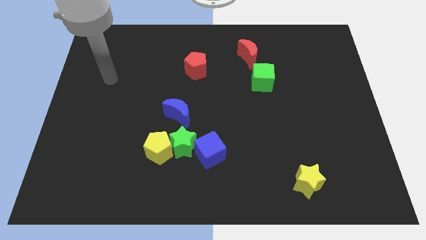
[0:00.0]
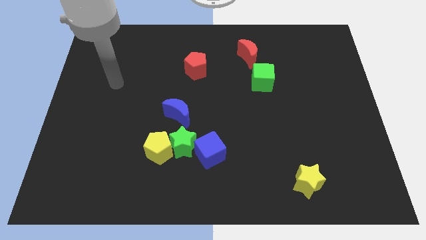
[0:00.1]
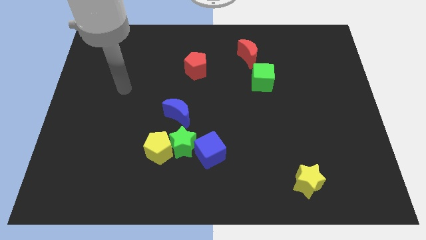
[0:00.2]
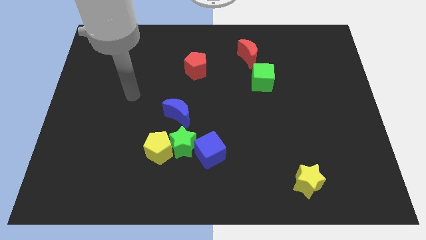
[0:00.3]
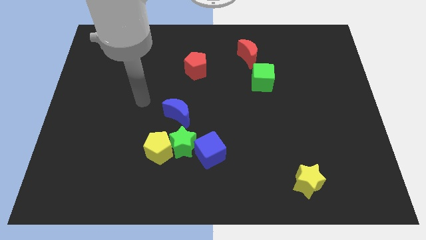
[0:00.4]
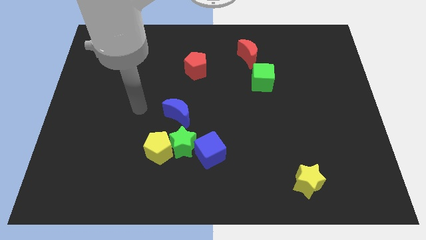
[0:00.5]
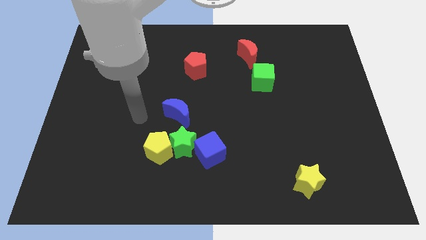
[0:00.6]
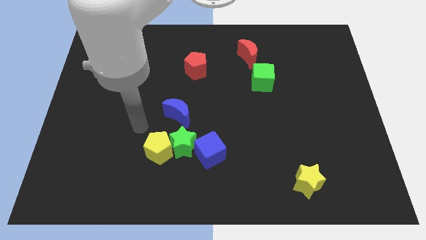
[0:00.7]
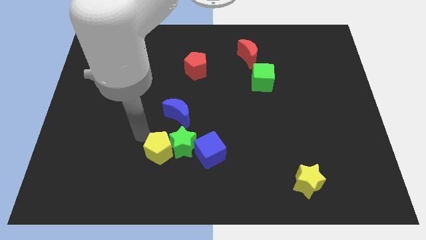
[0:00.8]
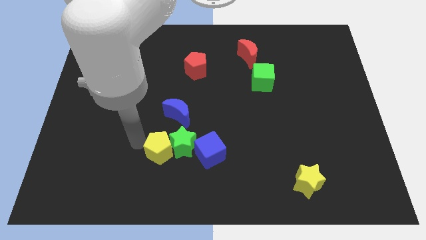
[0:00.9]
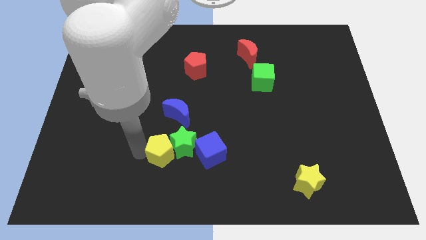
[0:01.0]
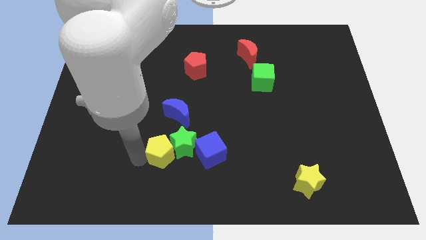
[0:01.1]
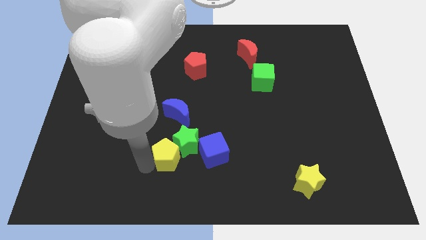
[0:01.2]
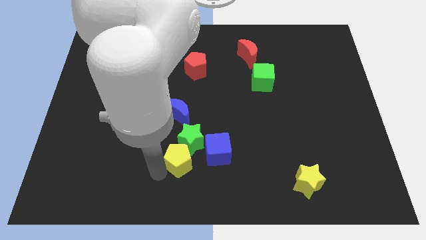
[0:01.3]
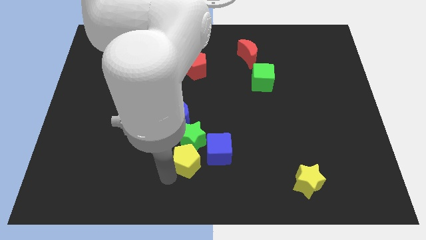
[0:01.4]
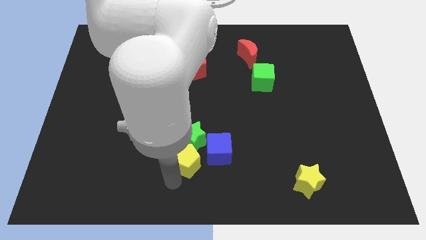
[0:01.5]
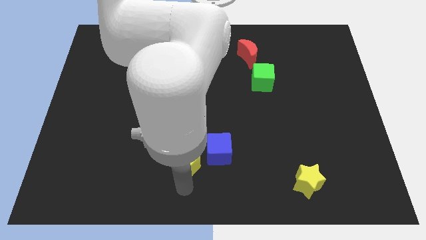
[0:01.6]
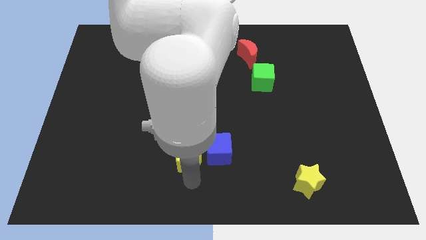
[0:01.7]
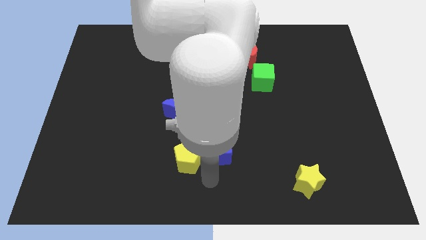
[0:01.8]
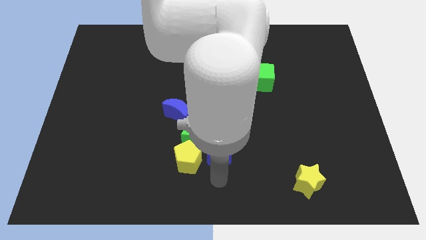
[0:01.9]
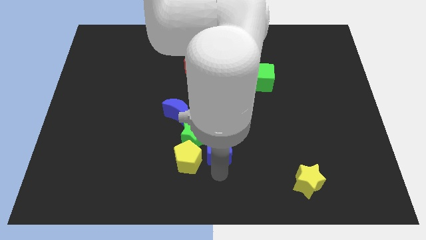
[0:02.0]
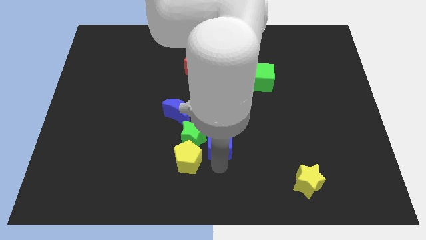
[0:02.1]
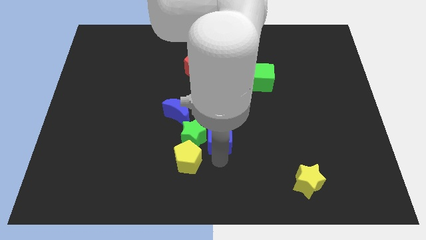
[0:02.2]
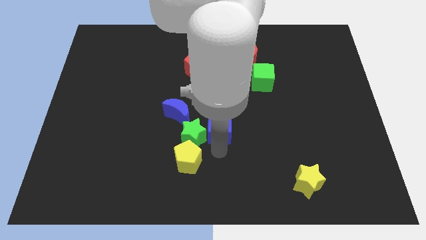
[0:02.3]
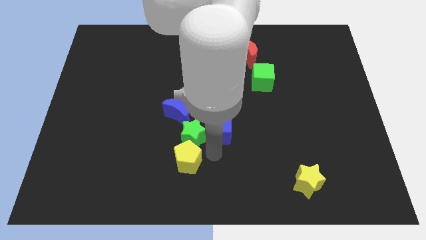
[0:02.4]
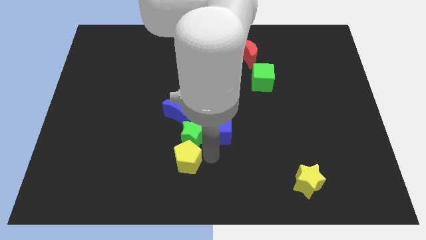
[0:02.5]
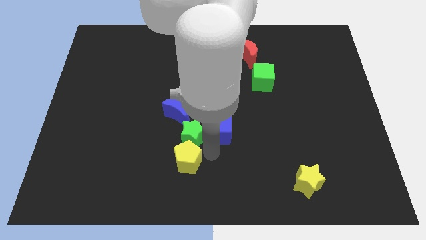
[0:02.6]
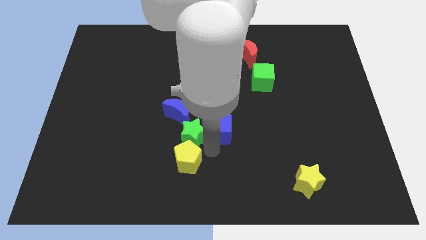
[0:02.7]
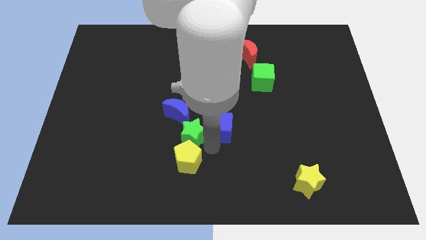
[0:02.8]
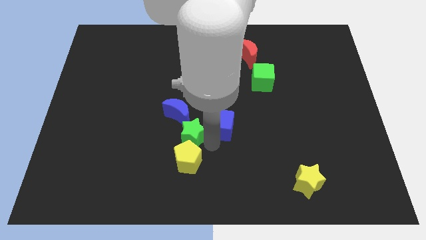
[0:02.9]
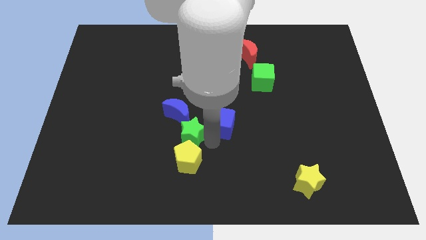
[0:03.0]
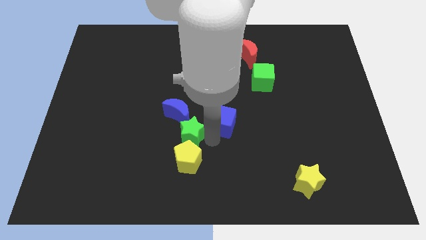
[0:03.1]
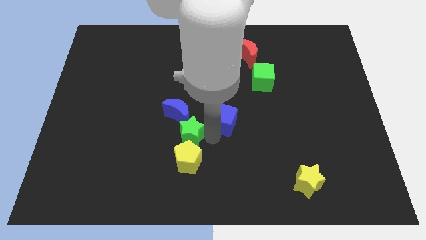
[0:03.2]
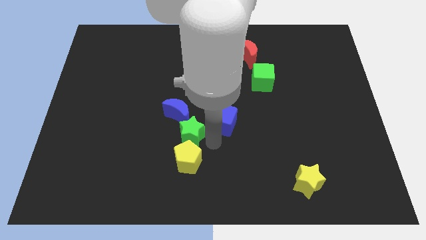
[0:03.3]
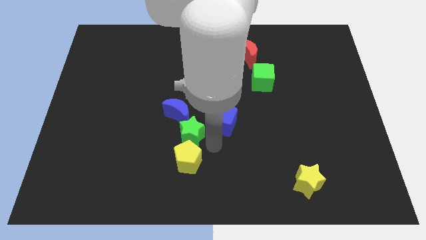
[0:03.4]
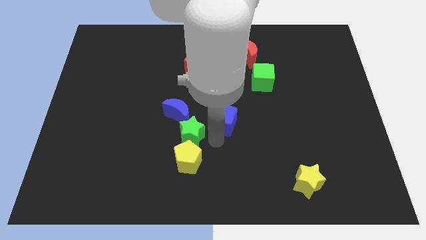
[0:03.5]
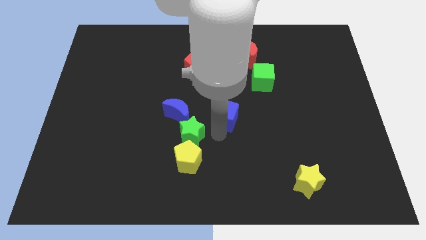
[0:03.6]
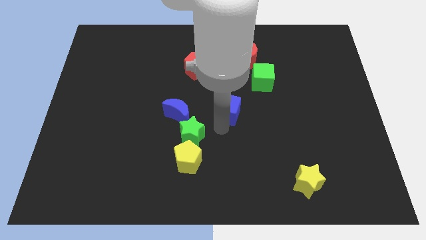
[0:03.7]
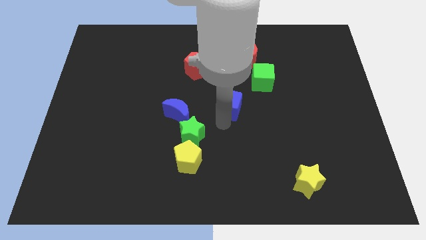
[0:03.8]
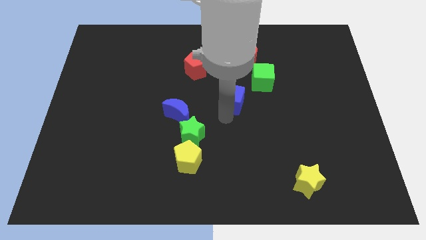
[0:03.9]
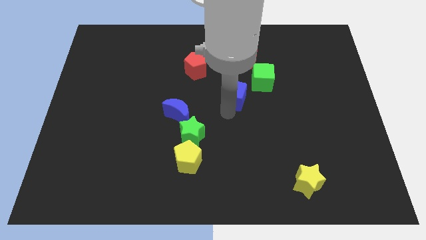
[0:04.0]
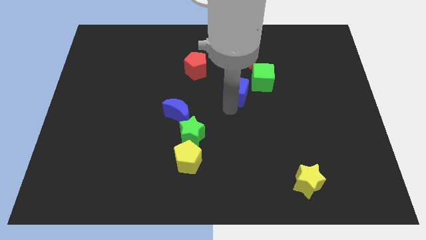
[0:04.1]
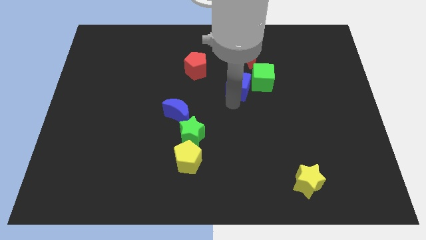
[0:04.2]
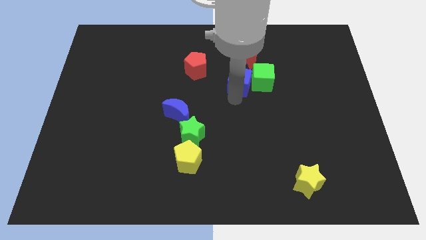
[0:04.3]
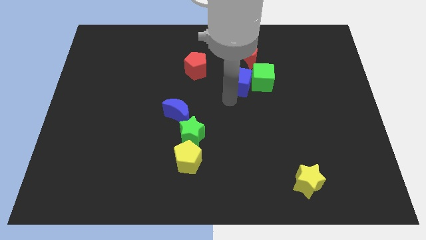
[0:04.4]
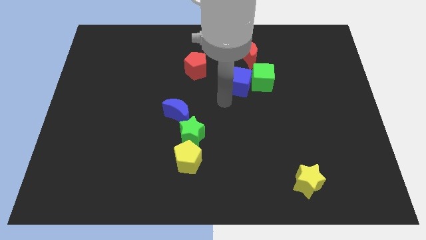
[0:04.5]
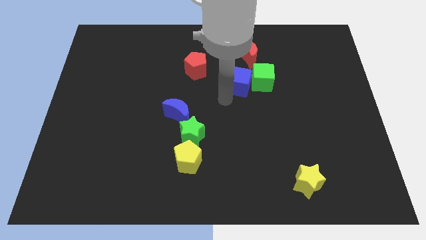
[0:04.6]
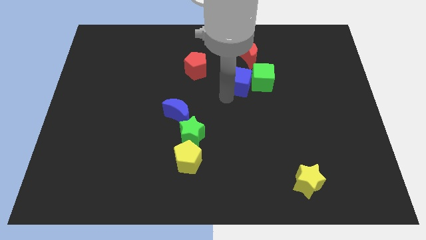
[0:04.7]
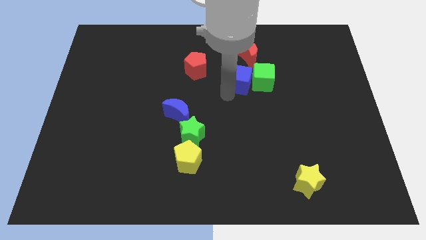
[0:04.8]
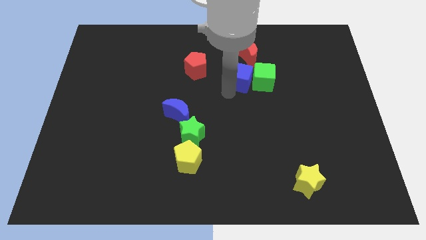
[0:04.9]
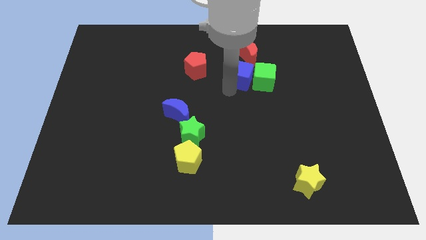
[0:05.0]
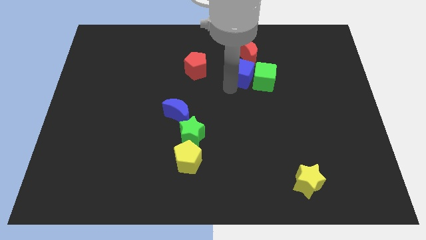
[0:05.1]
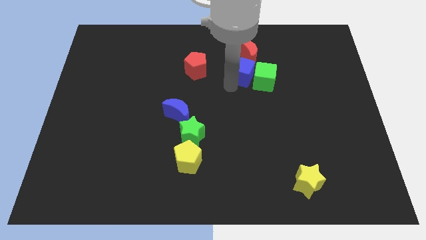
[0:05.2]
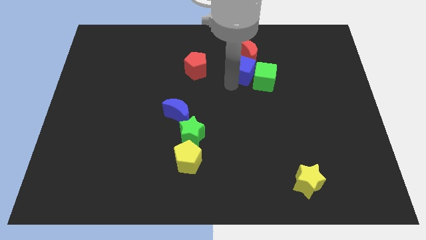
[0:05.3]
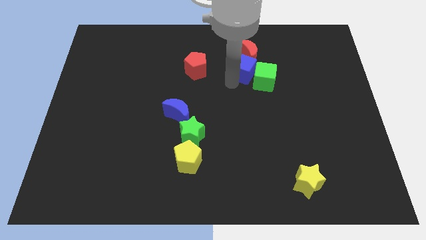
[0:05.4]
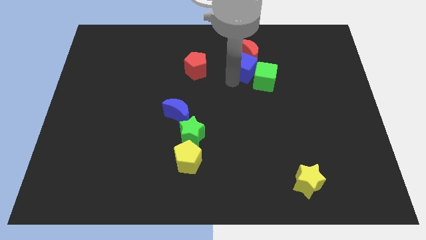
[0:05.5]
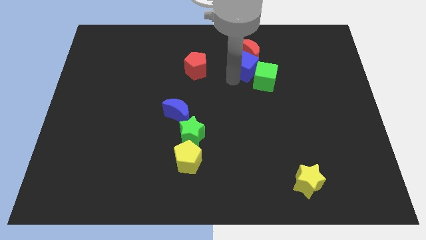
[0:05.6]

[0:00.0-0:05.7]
put the blue cube to the bottom right side of the red moon

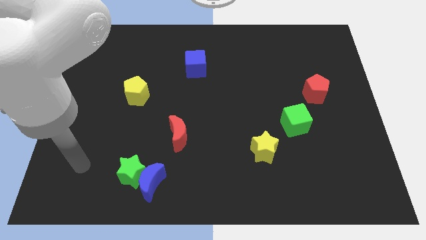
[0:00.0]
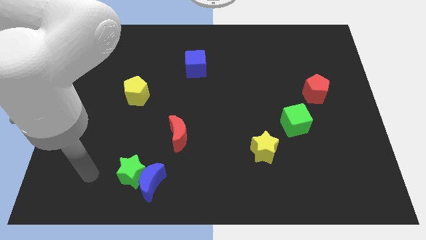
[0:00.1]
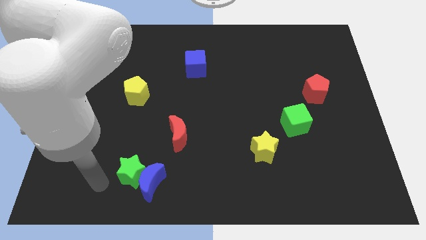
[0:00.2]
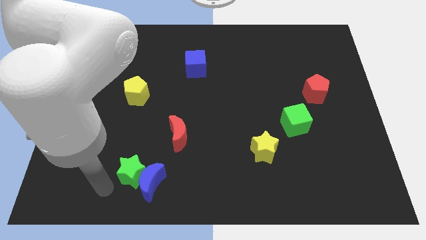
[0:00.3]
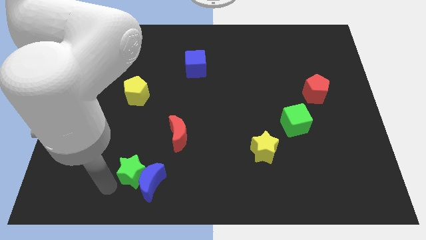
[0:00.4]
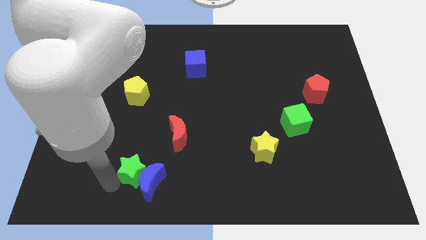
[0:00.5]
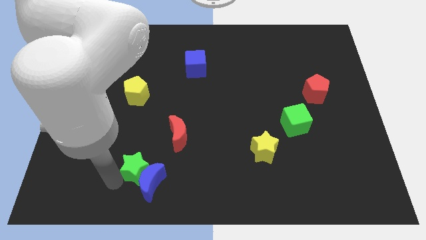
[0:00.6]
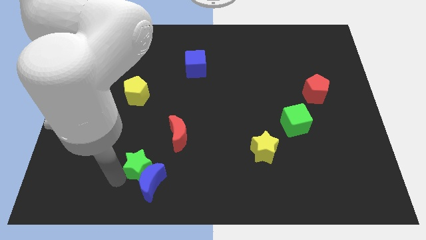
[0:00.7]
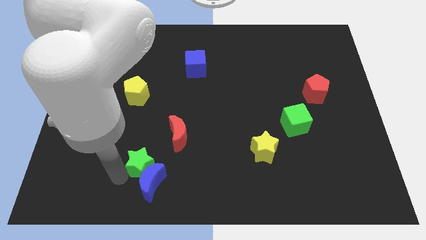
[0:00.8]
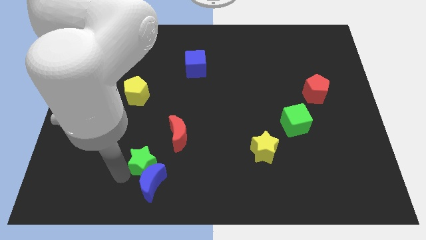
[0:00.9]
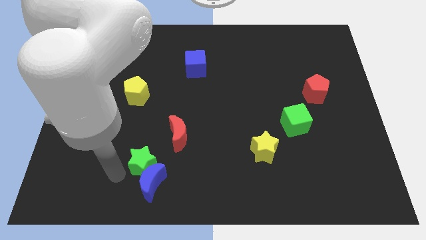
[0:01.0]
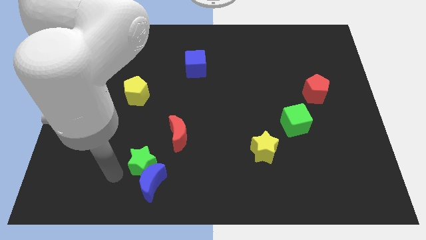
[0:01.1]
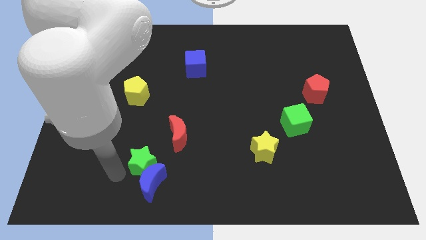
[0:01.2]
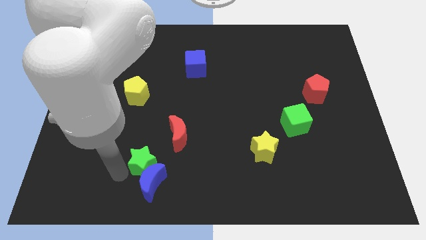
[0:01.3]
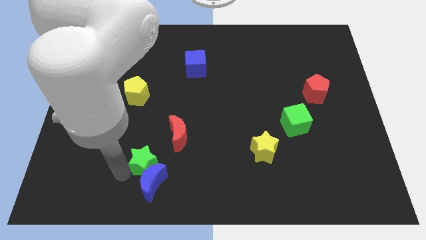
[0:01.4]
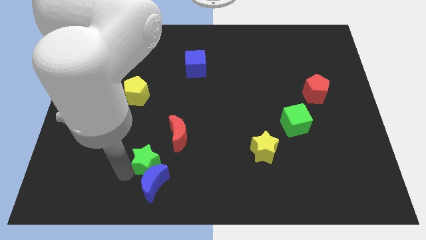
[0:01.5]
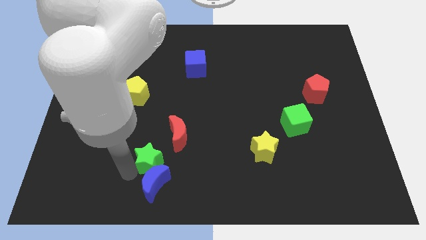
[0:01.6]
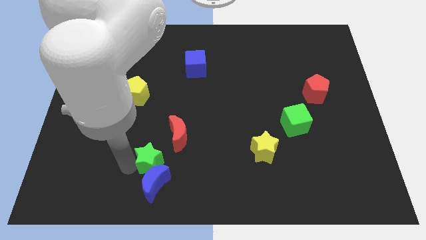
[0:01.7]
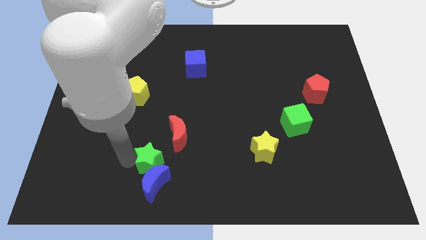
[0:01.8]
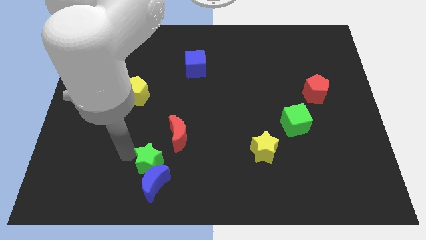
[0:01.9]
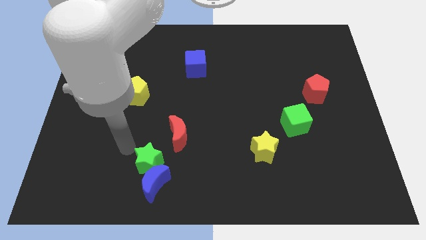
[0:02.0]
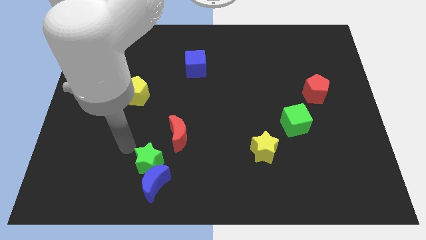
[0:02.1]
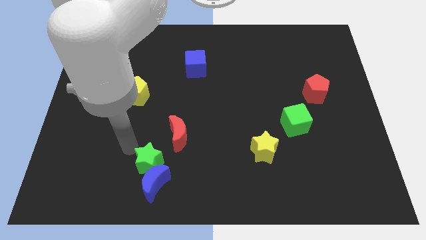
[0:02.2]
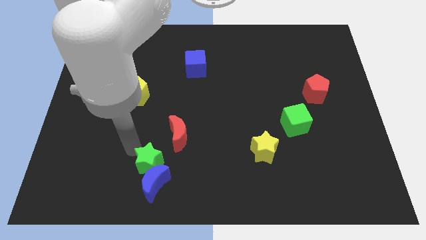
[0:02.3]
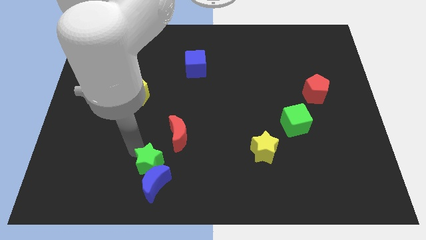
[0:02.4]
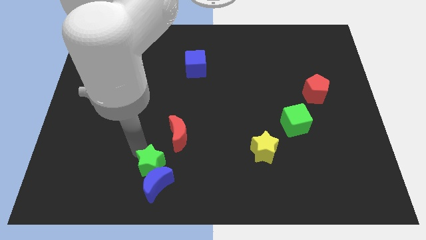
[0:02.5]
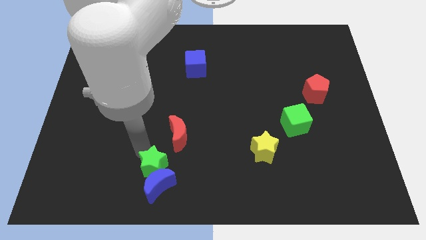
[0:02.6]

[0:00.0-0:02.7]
move the green star below the red moon
